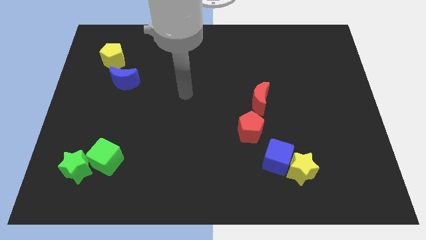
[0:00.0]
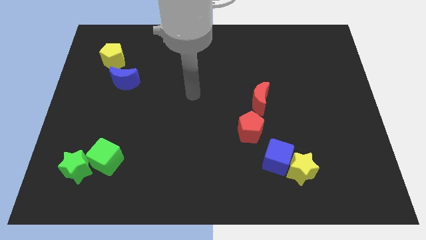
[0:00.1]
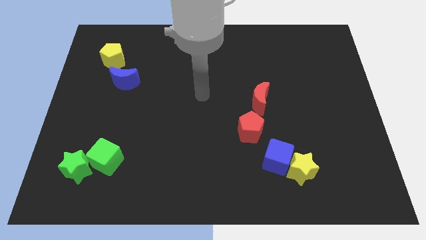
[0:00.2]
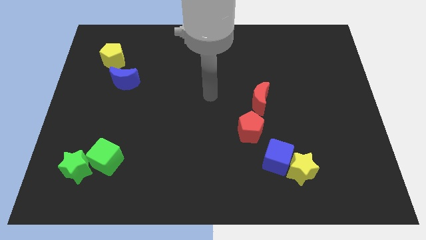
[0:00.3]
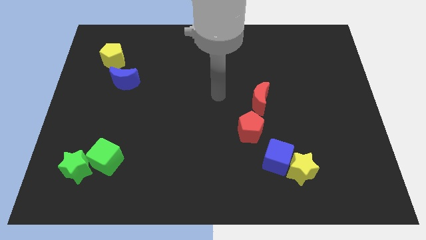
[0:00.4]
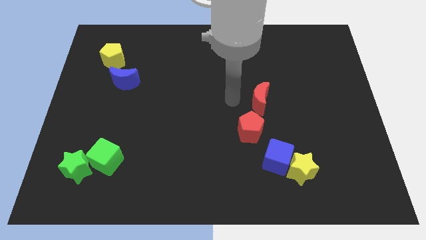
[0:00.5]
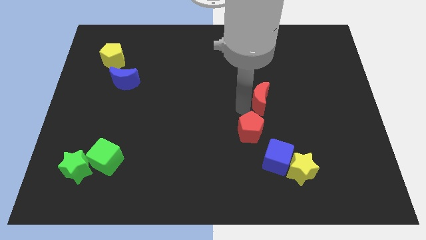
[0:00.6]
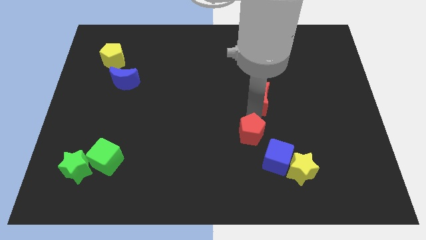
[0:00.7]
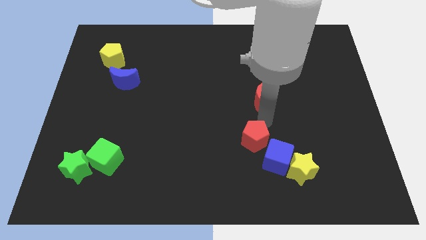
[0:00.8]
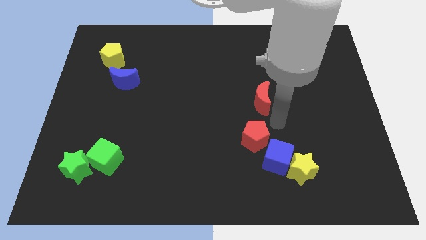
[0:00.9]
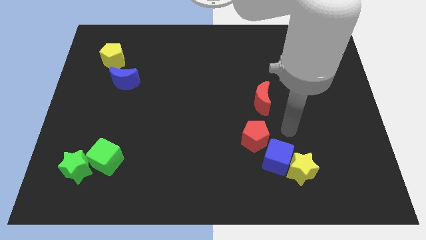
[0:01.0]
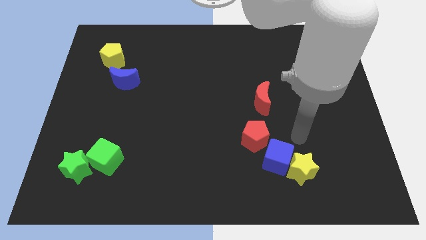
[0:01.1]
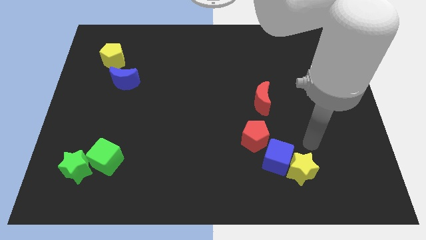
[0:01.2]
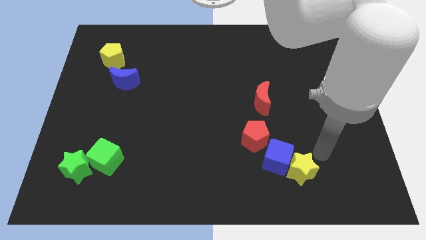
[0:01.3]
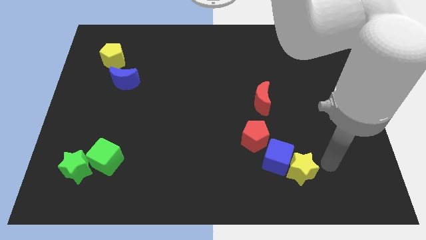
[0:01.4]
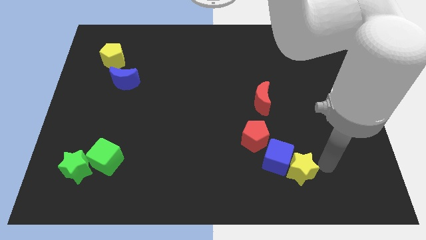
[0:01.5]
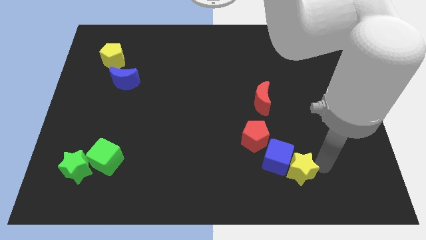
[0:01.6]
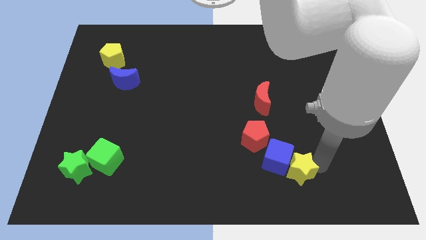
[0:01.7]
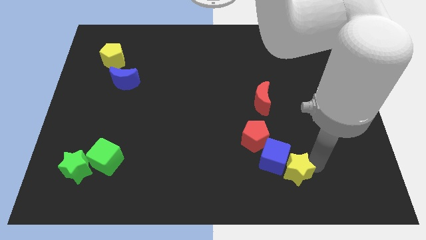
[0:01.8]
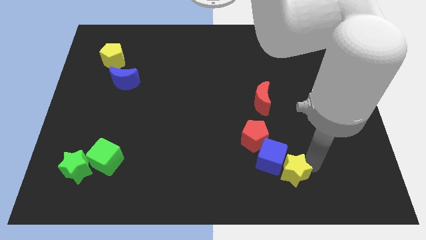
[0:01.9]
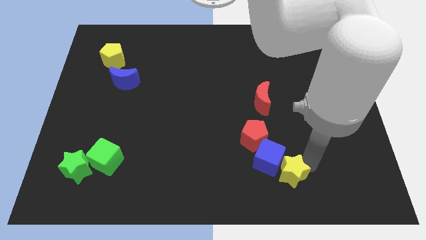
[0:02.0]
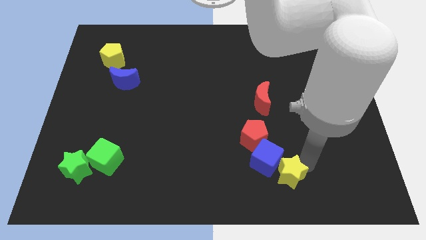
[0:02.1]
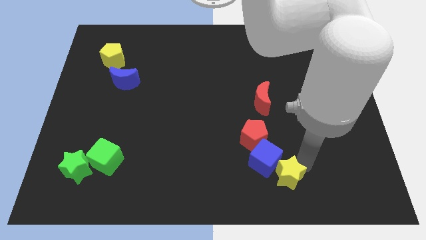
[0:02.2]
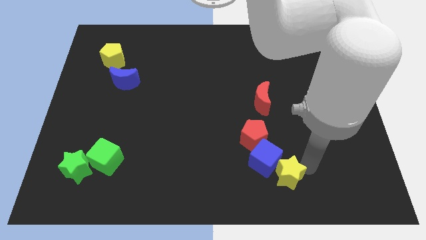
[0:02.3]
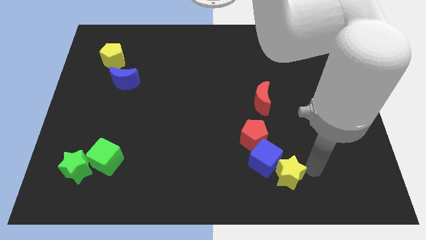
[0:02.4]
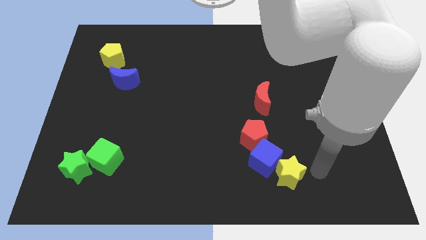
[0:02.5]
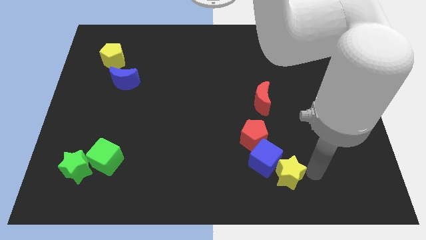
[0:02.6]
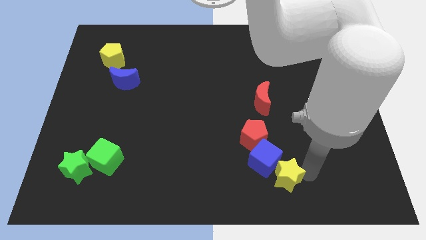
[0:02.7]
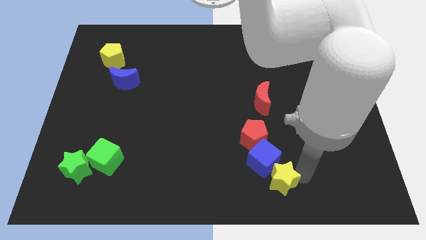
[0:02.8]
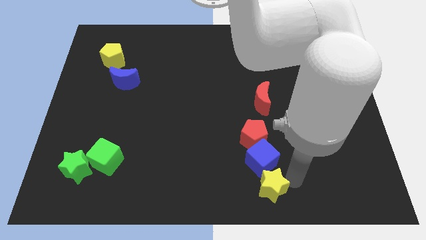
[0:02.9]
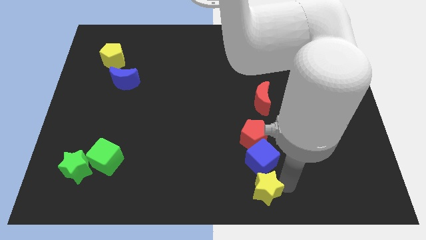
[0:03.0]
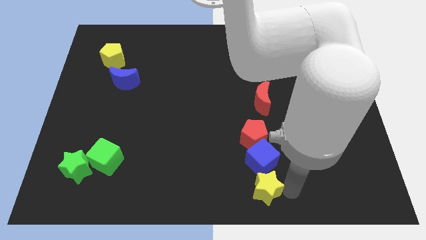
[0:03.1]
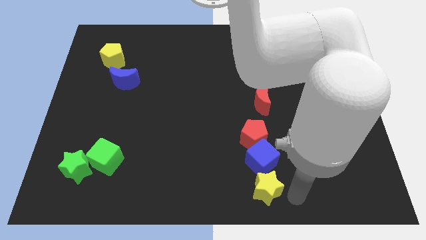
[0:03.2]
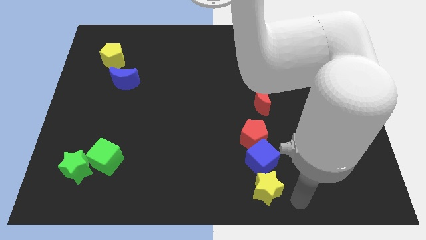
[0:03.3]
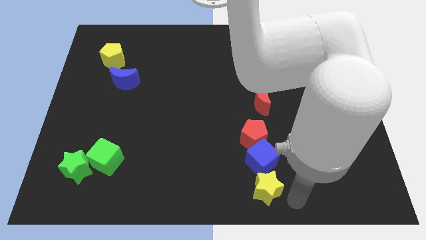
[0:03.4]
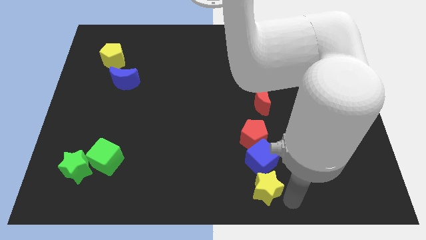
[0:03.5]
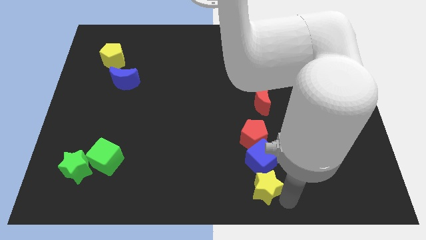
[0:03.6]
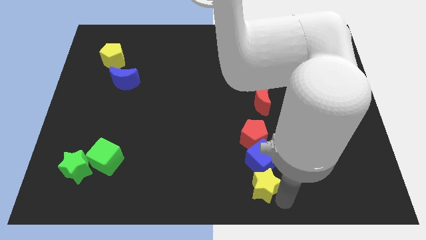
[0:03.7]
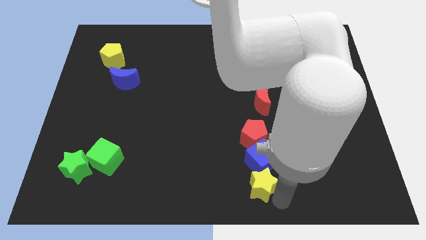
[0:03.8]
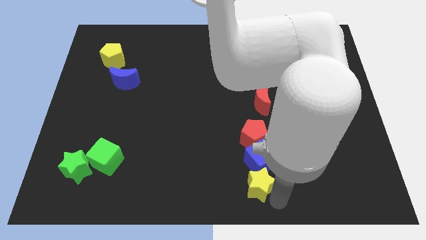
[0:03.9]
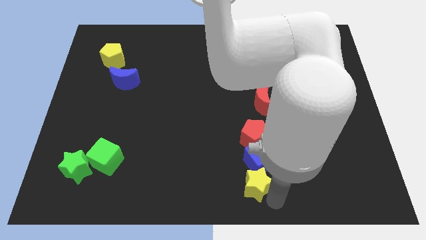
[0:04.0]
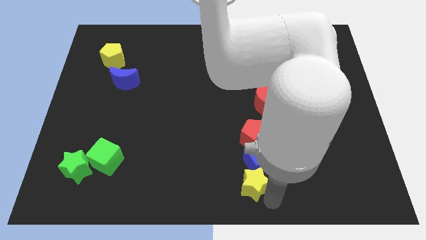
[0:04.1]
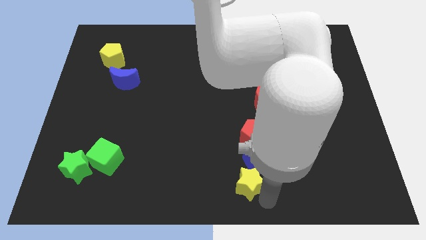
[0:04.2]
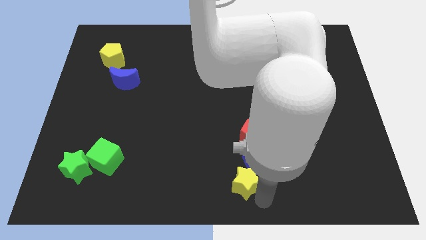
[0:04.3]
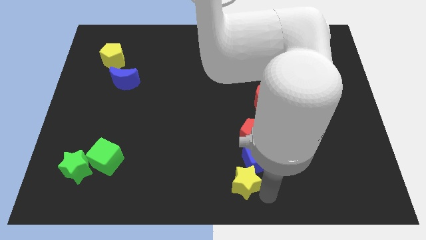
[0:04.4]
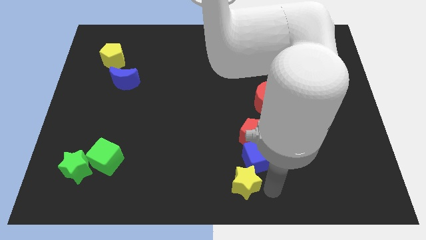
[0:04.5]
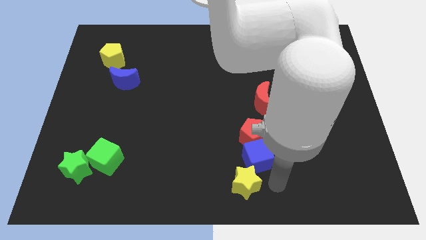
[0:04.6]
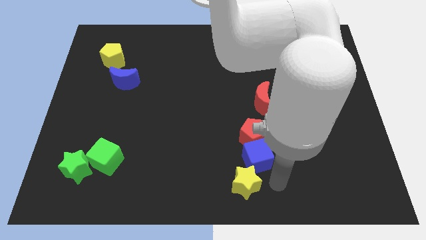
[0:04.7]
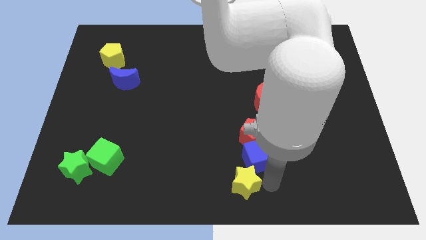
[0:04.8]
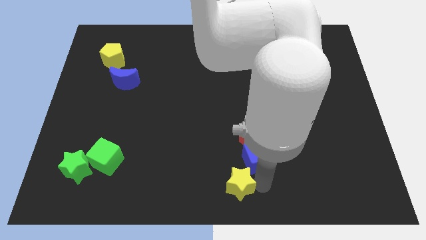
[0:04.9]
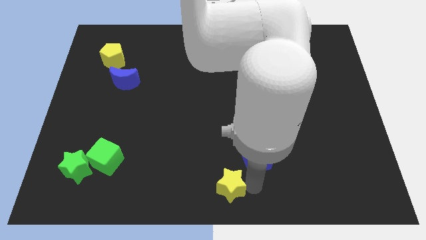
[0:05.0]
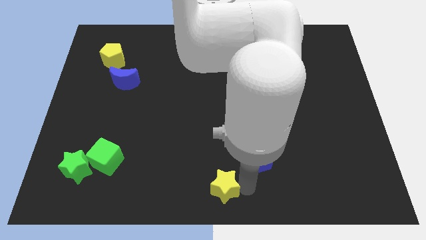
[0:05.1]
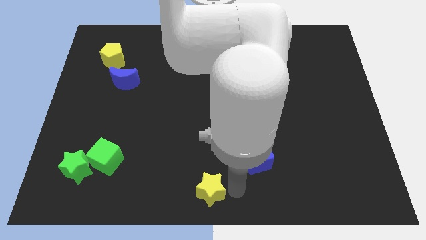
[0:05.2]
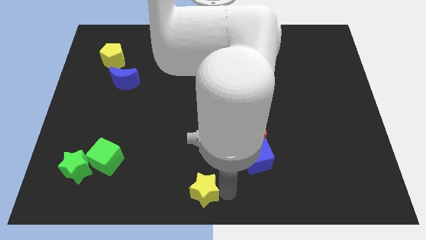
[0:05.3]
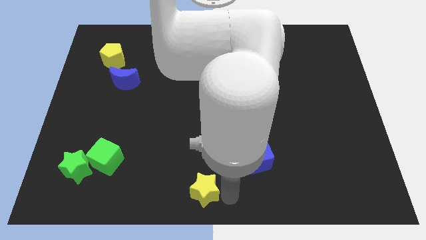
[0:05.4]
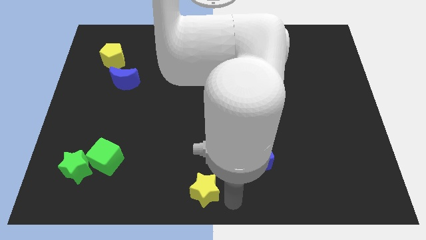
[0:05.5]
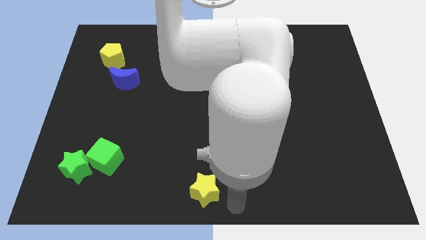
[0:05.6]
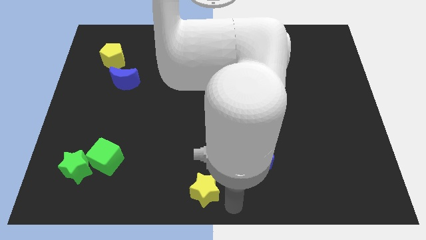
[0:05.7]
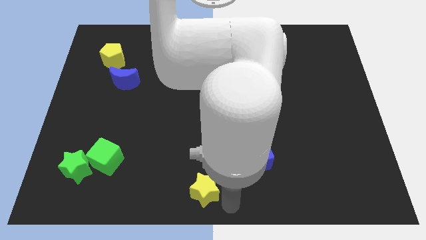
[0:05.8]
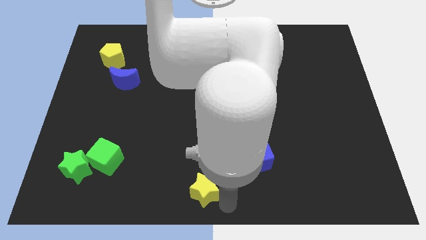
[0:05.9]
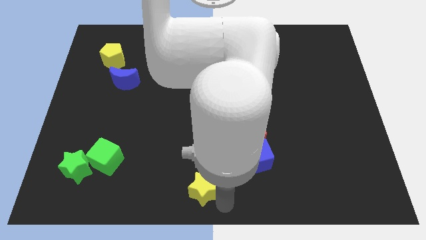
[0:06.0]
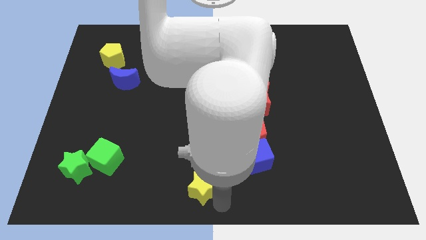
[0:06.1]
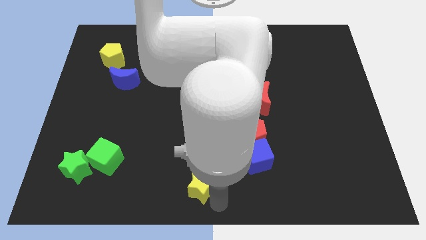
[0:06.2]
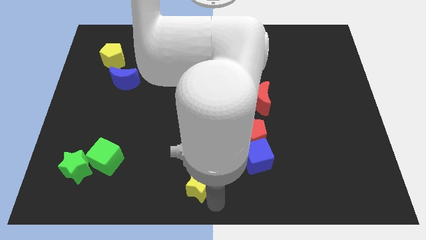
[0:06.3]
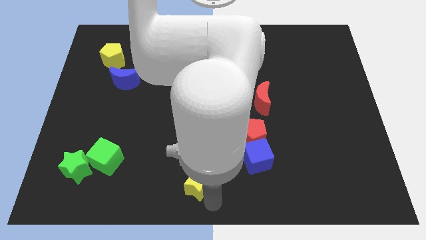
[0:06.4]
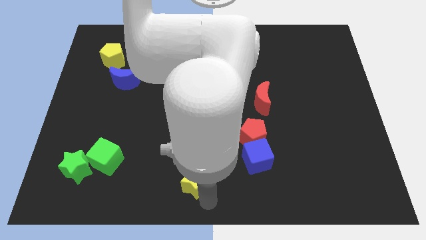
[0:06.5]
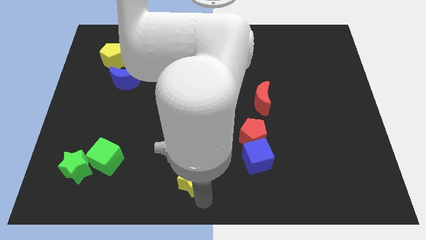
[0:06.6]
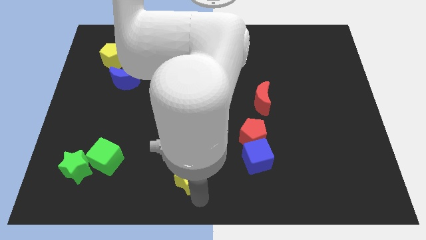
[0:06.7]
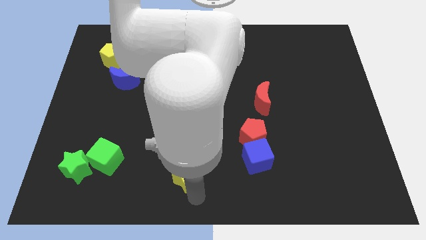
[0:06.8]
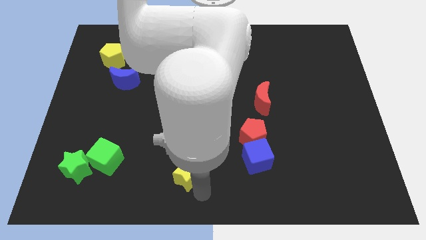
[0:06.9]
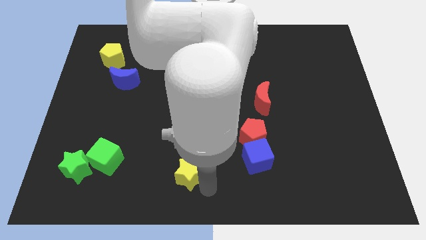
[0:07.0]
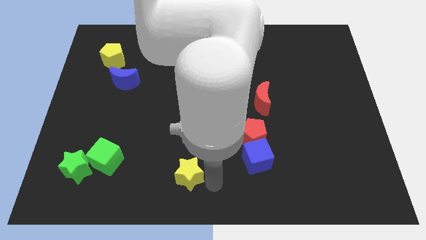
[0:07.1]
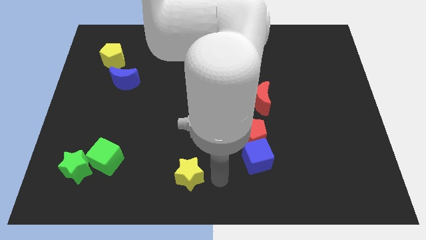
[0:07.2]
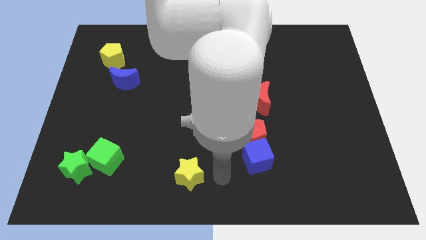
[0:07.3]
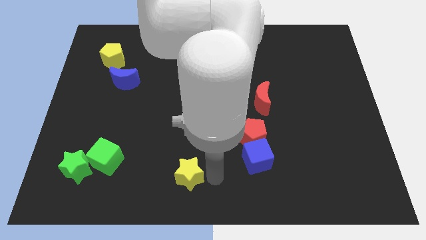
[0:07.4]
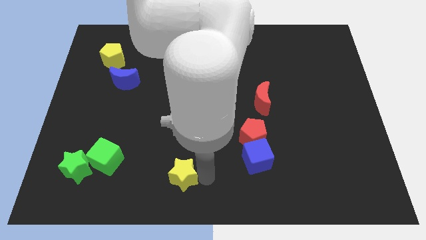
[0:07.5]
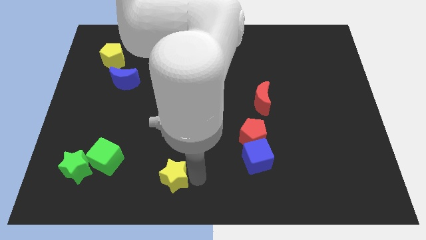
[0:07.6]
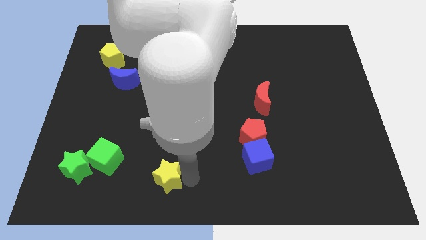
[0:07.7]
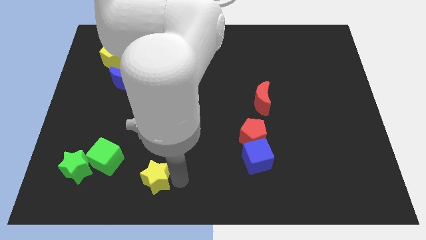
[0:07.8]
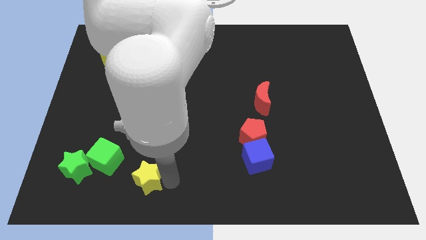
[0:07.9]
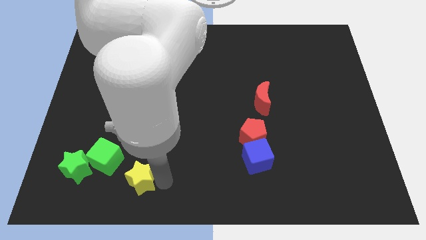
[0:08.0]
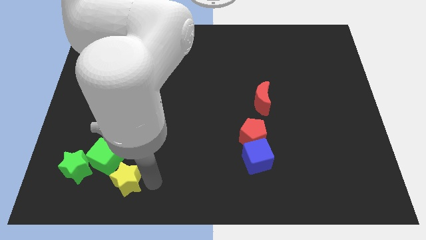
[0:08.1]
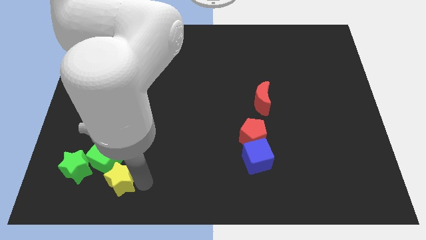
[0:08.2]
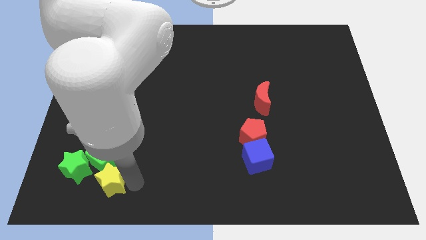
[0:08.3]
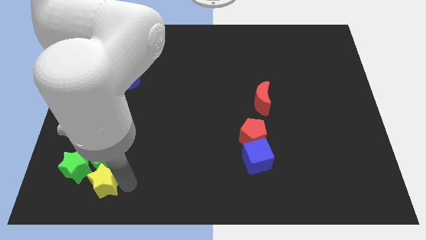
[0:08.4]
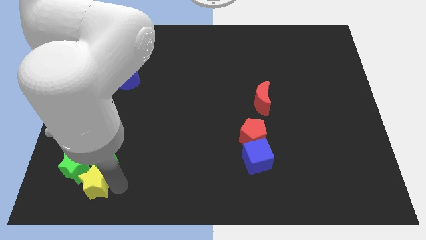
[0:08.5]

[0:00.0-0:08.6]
push the yellow star towards the green star
